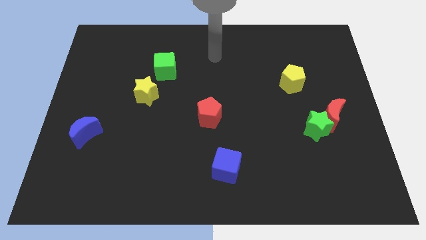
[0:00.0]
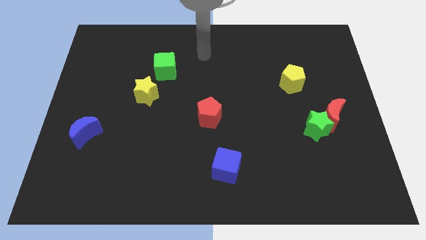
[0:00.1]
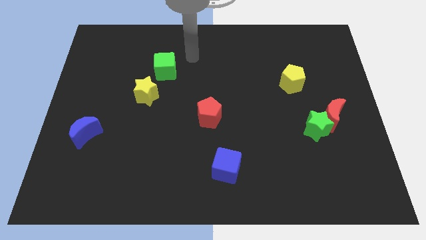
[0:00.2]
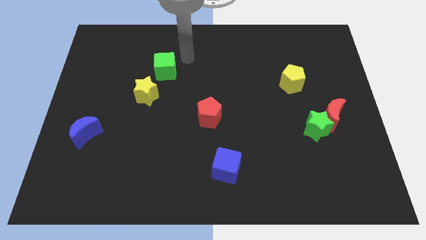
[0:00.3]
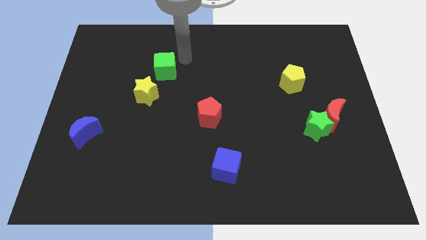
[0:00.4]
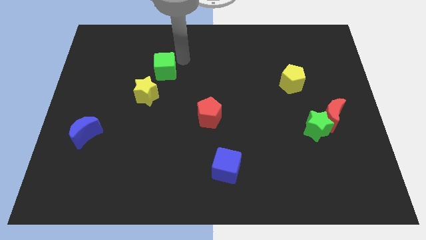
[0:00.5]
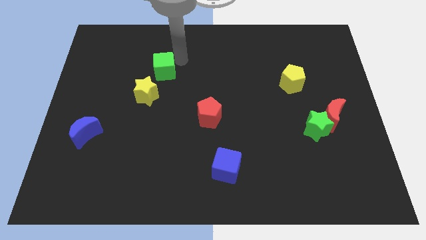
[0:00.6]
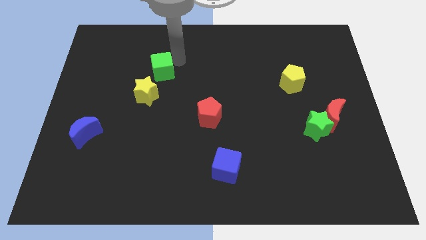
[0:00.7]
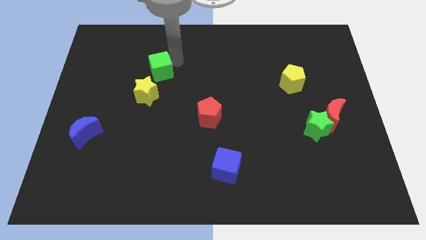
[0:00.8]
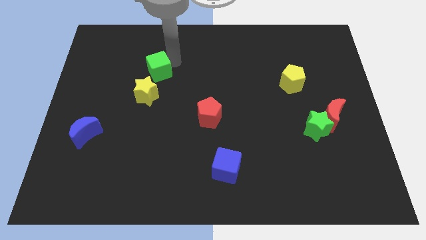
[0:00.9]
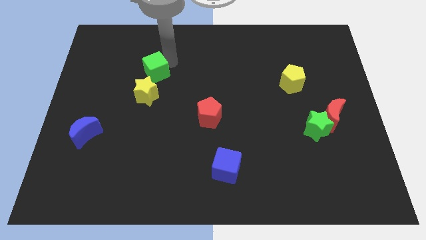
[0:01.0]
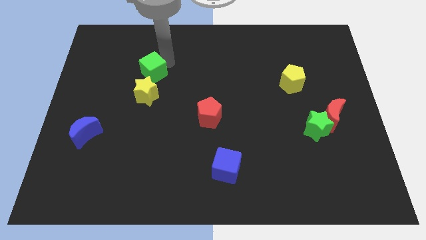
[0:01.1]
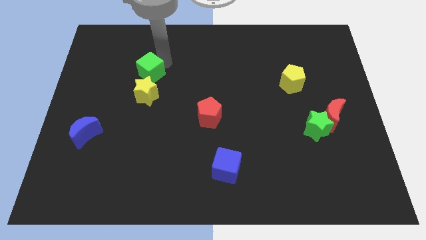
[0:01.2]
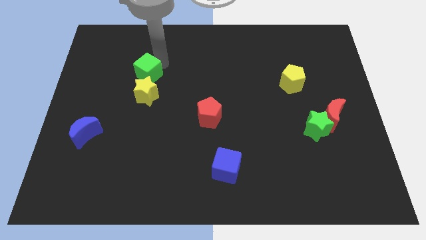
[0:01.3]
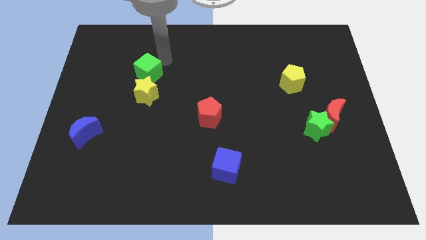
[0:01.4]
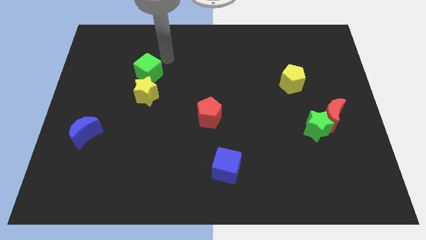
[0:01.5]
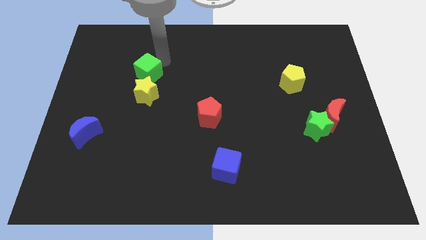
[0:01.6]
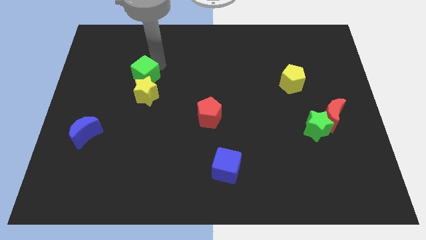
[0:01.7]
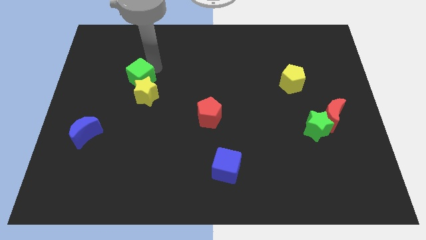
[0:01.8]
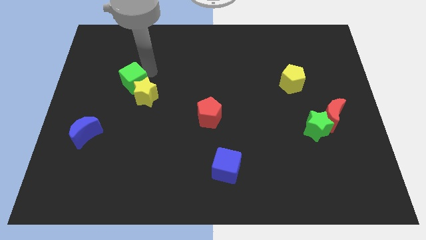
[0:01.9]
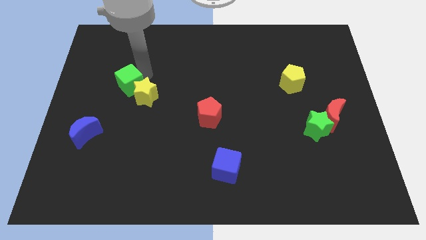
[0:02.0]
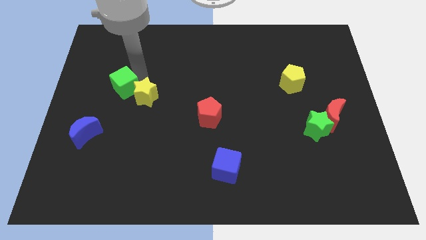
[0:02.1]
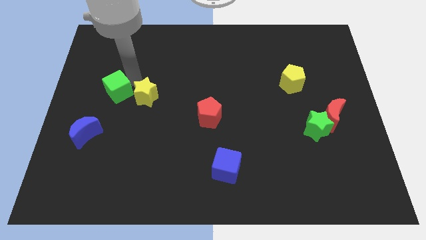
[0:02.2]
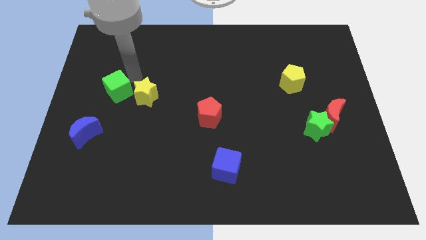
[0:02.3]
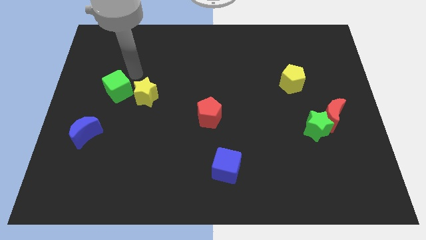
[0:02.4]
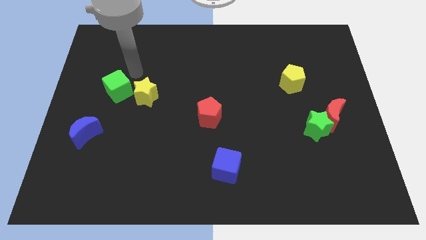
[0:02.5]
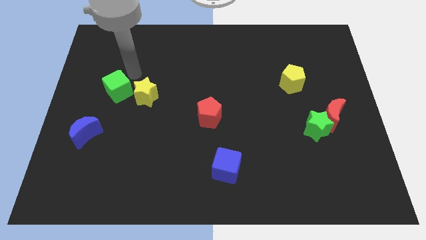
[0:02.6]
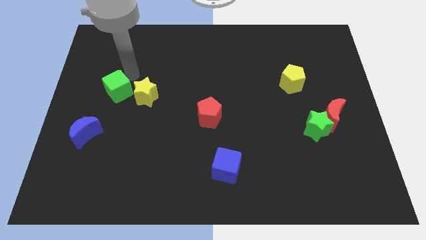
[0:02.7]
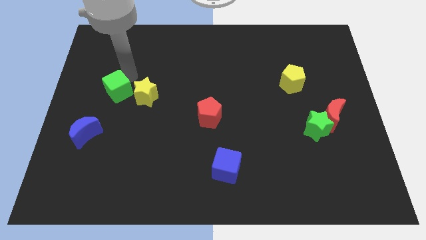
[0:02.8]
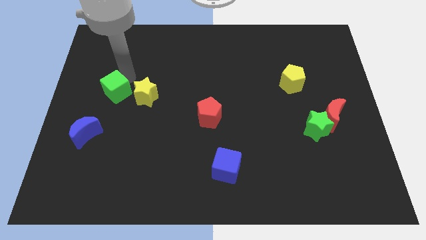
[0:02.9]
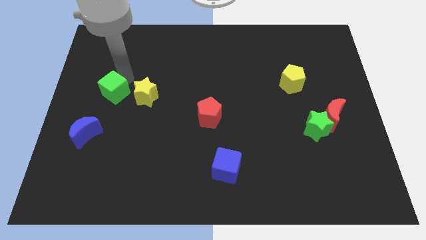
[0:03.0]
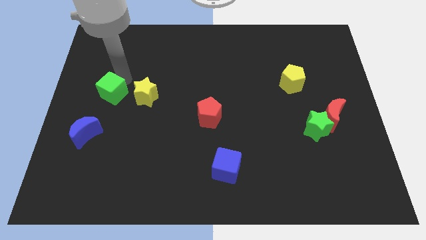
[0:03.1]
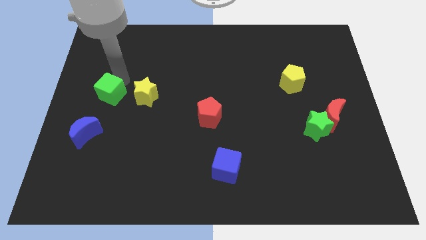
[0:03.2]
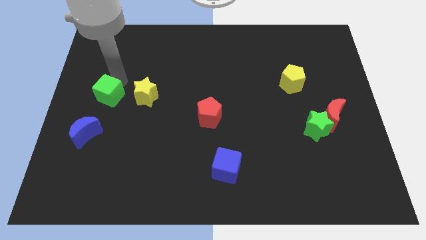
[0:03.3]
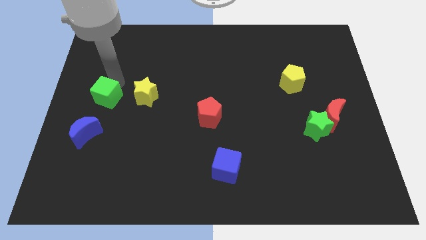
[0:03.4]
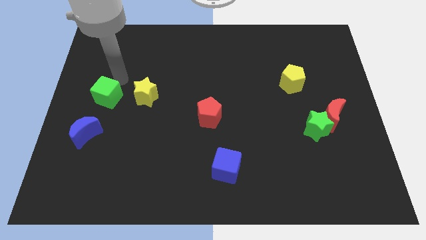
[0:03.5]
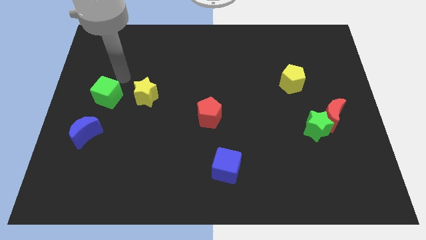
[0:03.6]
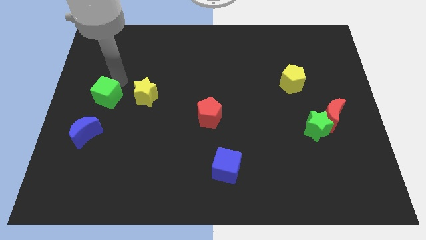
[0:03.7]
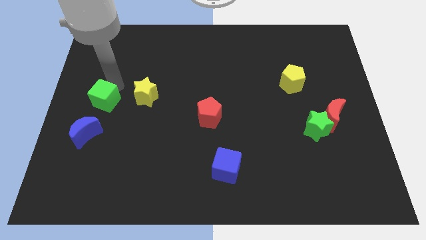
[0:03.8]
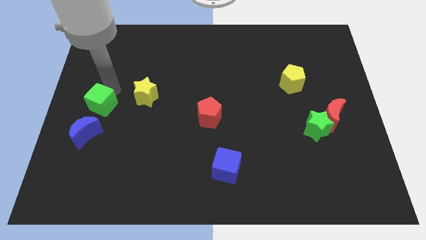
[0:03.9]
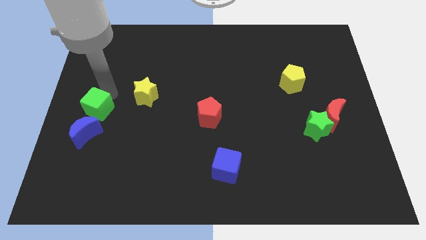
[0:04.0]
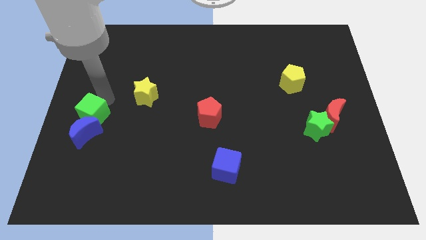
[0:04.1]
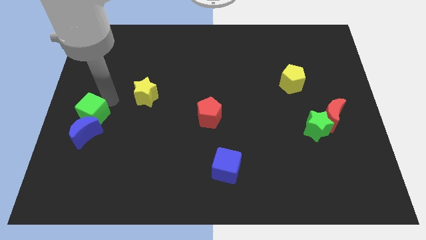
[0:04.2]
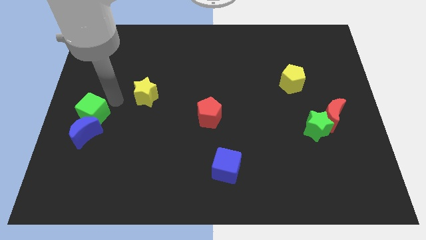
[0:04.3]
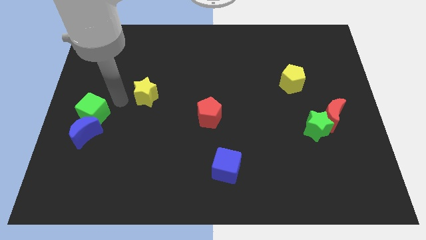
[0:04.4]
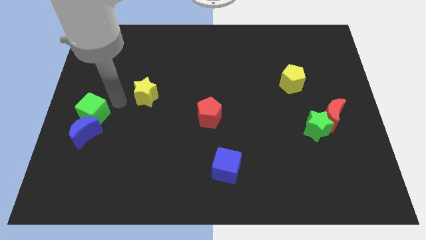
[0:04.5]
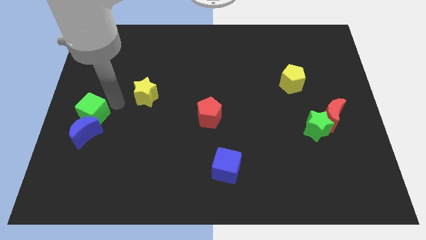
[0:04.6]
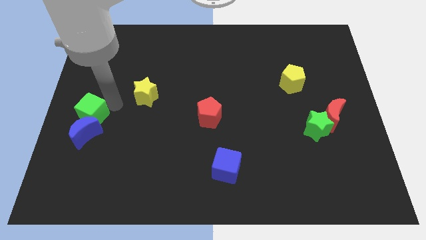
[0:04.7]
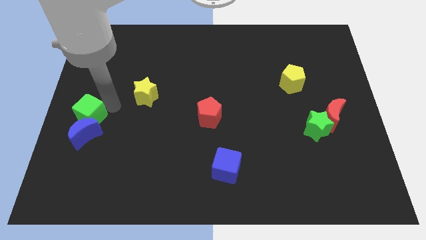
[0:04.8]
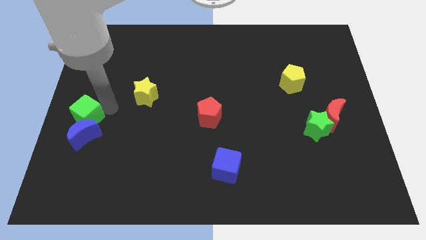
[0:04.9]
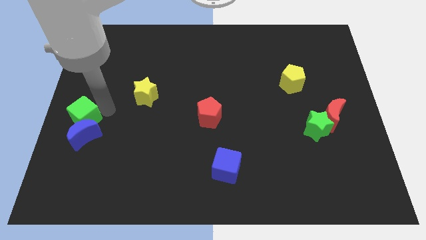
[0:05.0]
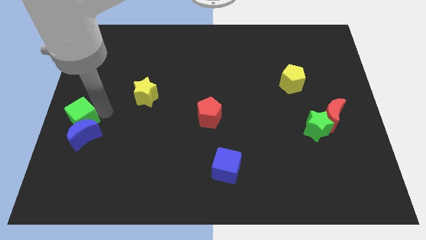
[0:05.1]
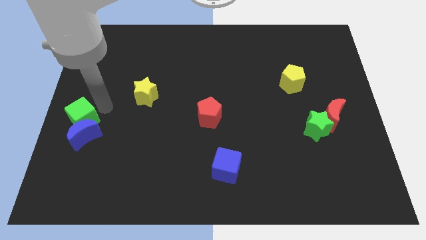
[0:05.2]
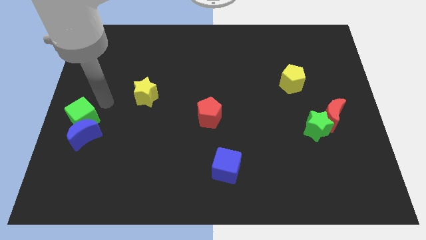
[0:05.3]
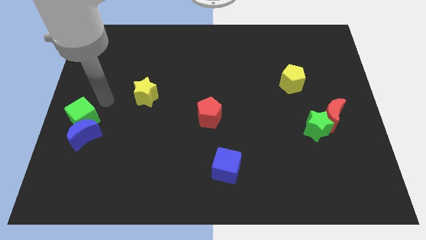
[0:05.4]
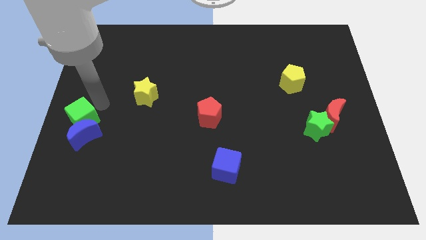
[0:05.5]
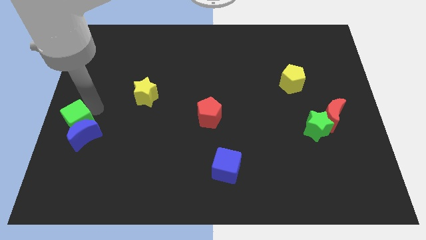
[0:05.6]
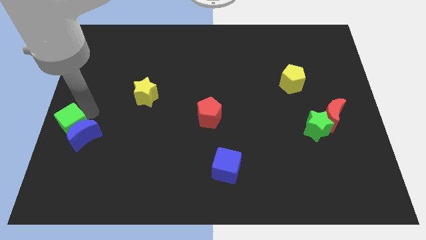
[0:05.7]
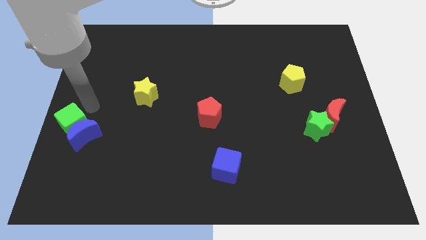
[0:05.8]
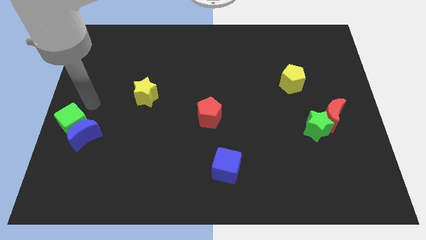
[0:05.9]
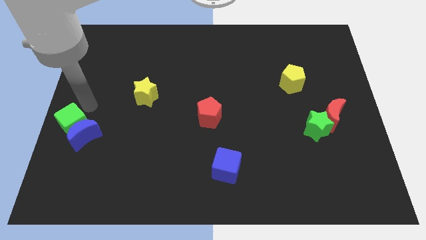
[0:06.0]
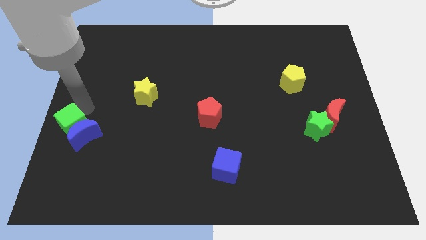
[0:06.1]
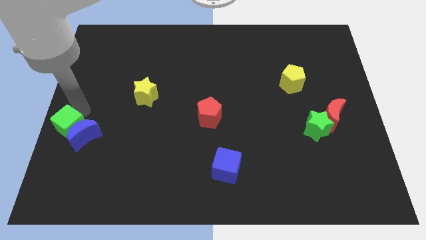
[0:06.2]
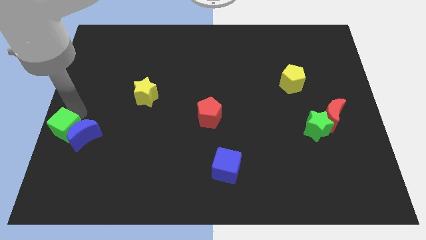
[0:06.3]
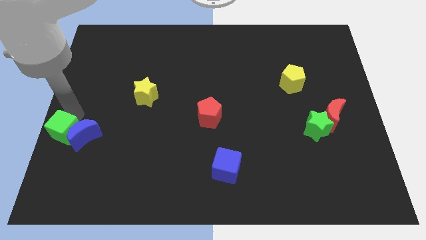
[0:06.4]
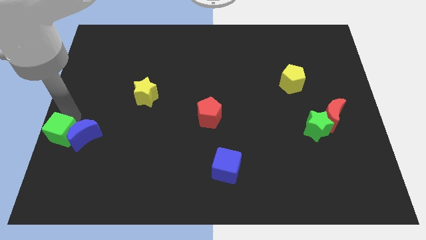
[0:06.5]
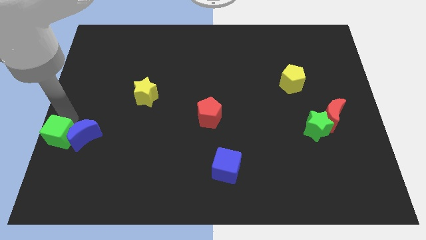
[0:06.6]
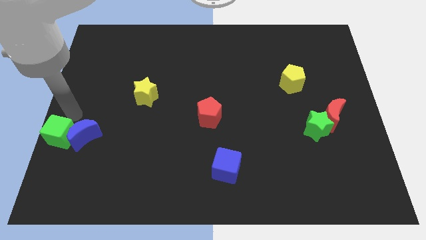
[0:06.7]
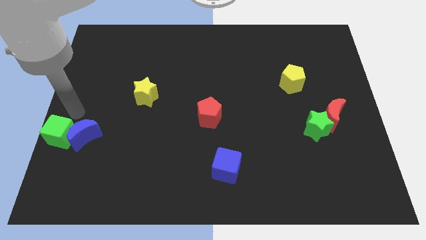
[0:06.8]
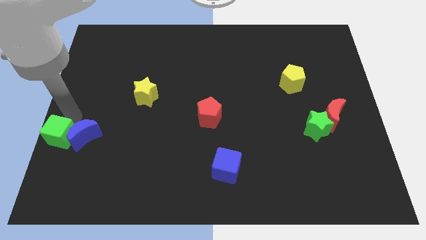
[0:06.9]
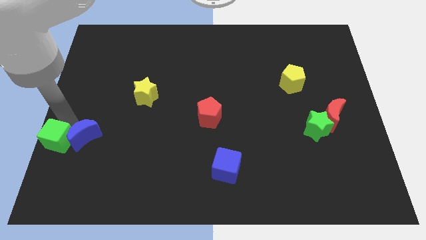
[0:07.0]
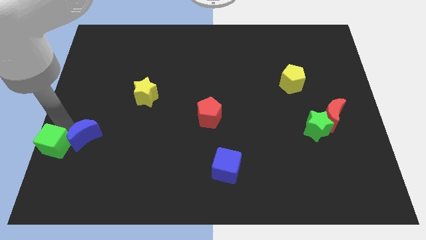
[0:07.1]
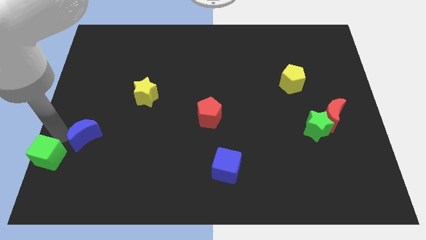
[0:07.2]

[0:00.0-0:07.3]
slide the green cube to the bottom left
